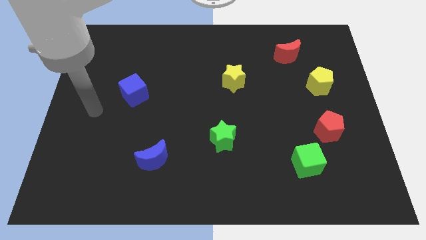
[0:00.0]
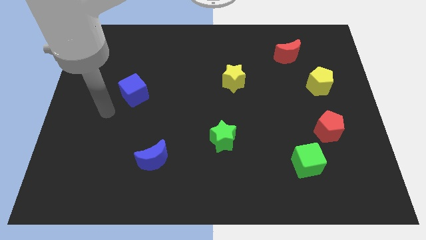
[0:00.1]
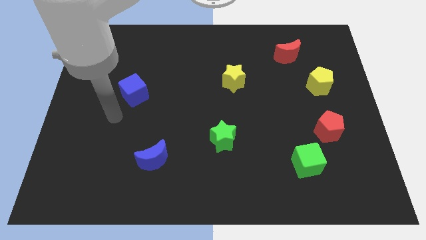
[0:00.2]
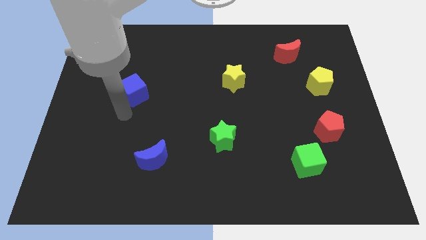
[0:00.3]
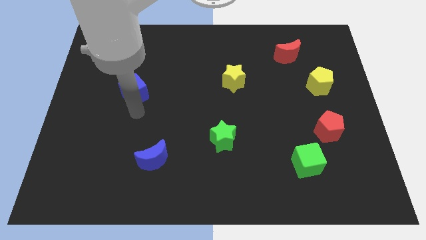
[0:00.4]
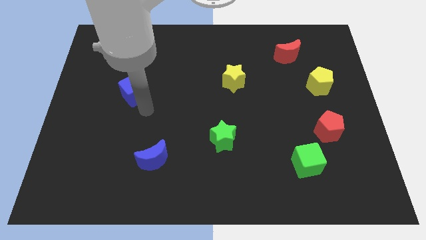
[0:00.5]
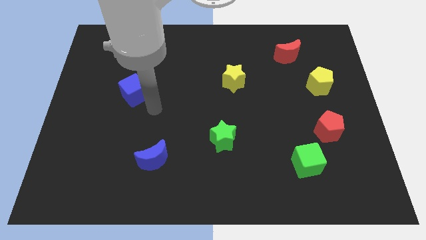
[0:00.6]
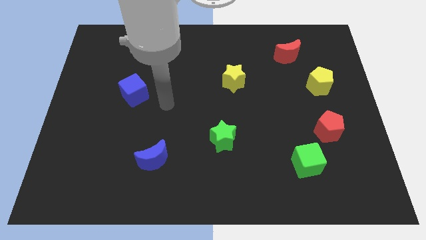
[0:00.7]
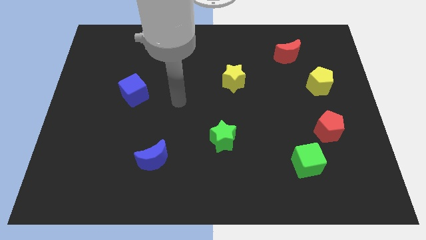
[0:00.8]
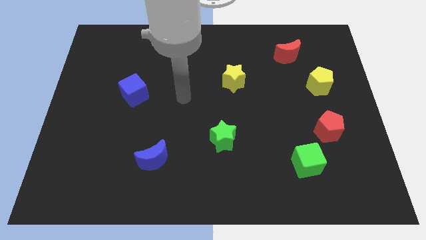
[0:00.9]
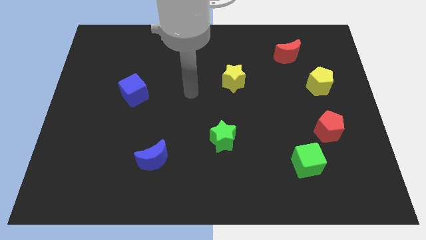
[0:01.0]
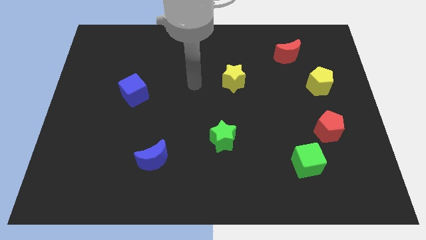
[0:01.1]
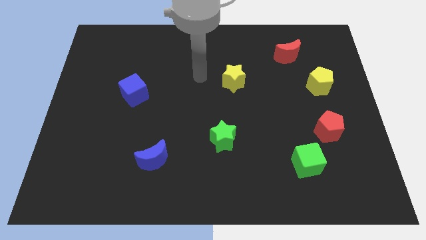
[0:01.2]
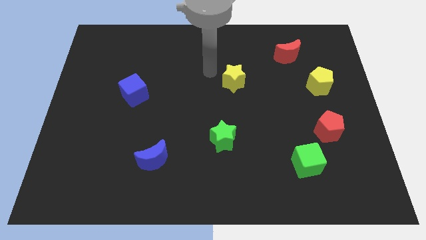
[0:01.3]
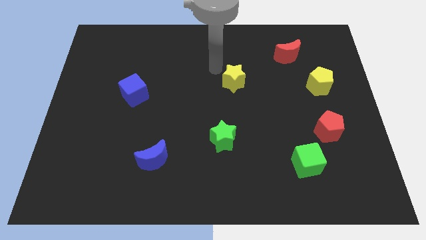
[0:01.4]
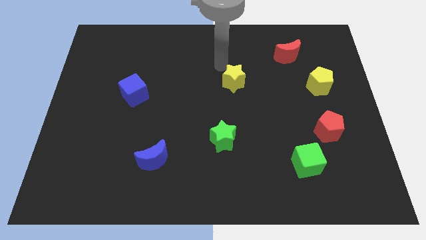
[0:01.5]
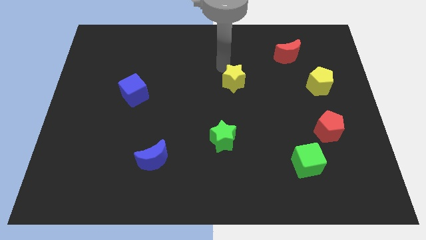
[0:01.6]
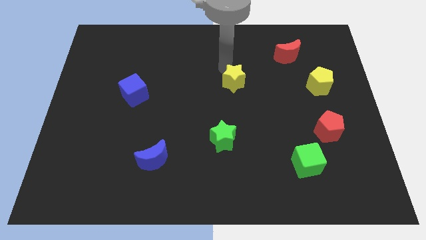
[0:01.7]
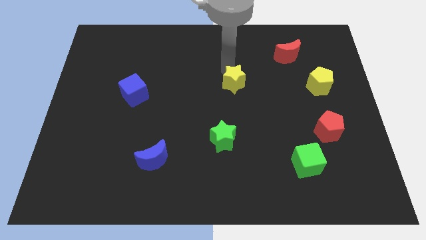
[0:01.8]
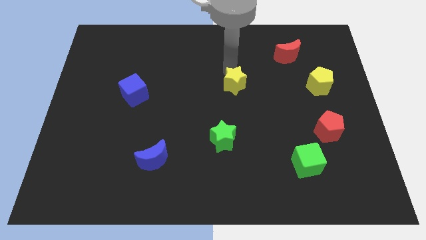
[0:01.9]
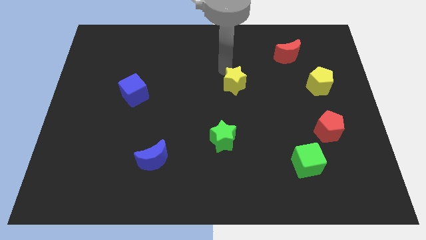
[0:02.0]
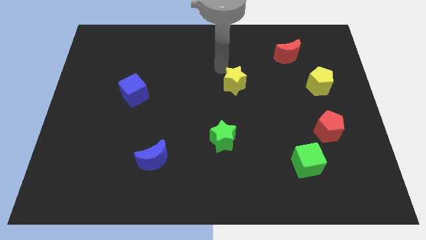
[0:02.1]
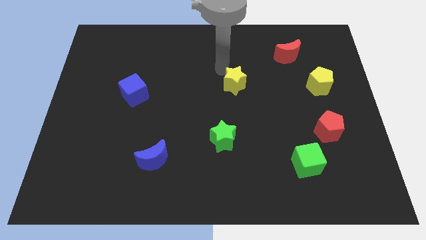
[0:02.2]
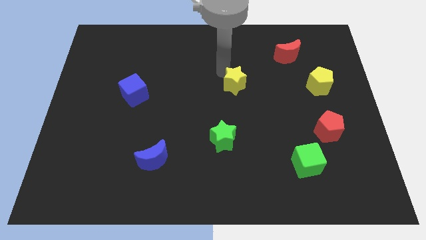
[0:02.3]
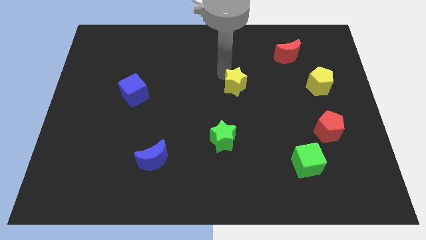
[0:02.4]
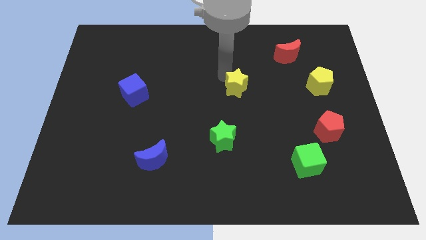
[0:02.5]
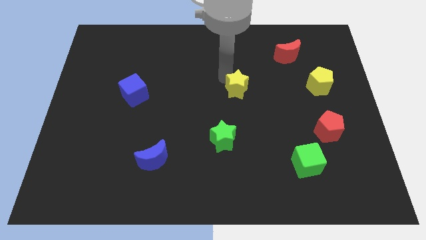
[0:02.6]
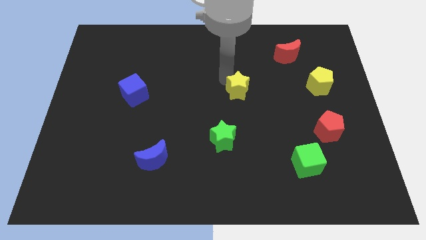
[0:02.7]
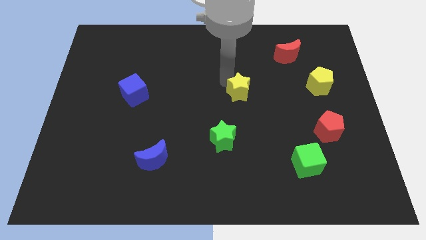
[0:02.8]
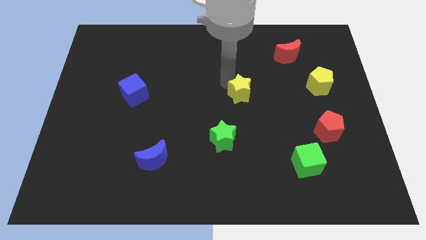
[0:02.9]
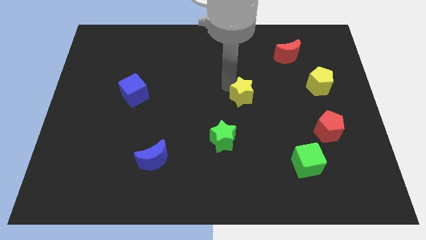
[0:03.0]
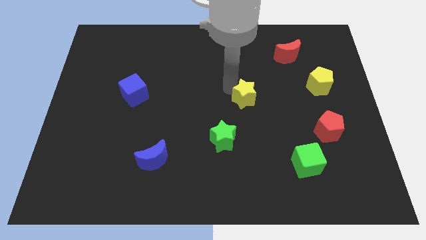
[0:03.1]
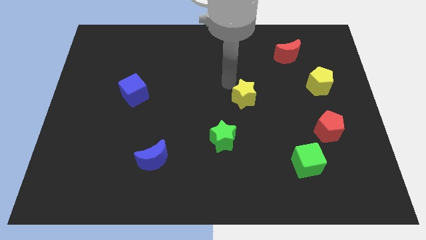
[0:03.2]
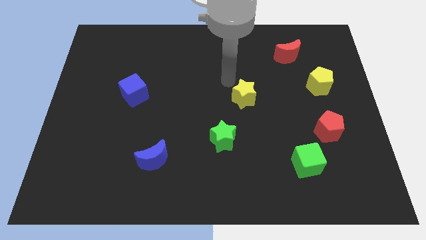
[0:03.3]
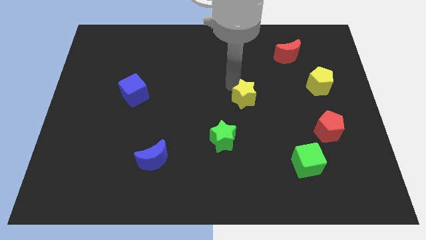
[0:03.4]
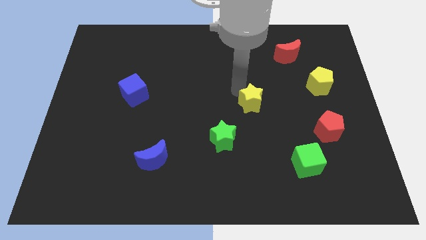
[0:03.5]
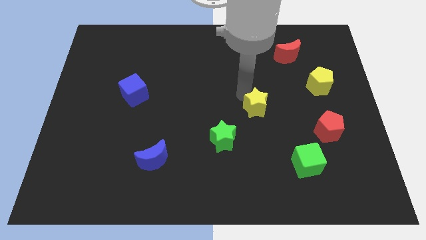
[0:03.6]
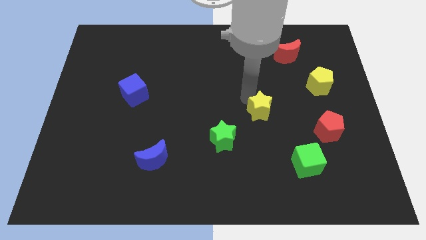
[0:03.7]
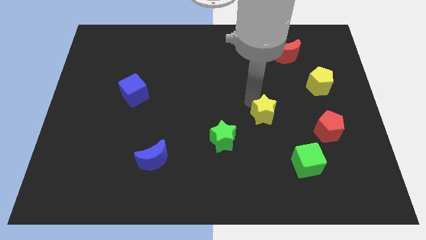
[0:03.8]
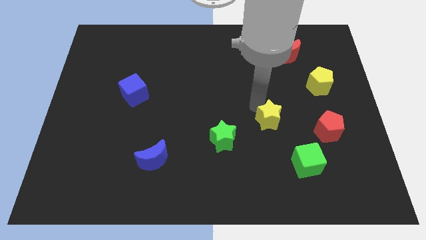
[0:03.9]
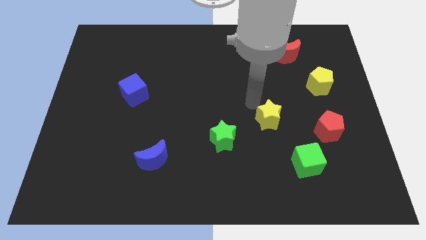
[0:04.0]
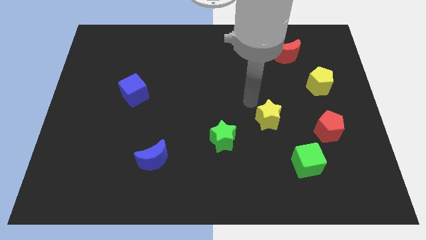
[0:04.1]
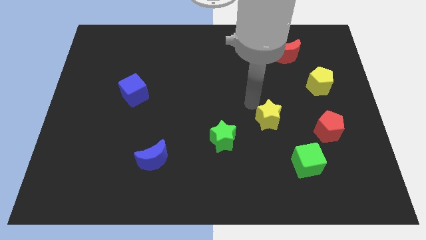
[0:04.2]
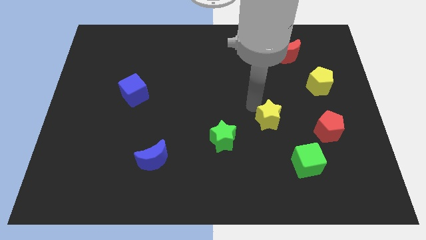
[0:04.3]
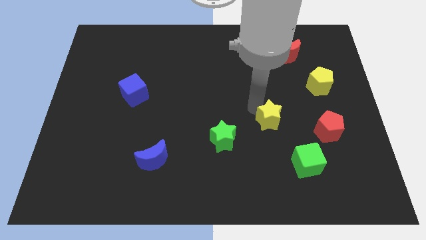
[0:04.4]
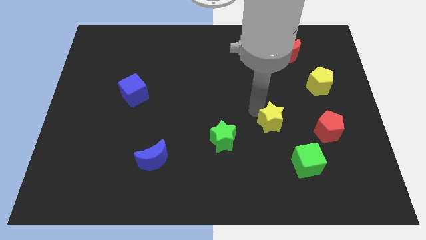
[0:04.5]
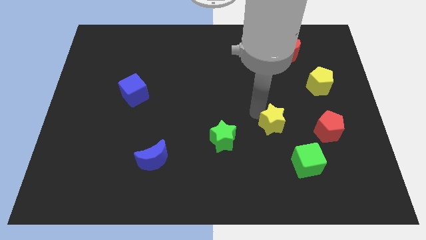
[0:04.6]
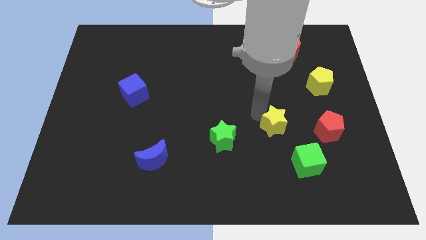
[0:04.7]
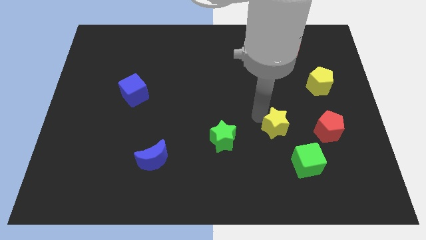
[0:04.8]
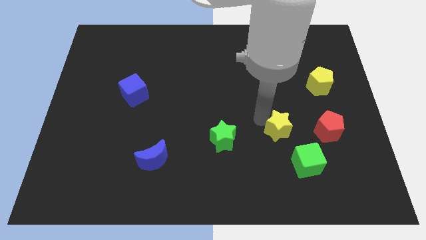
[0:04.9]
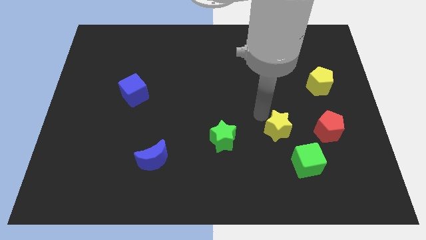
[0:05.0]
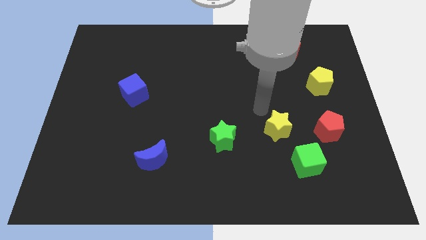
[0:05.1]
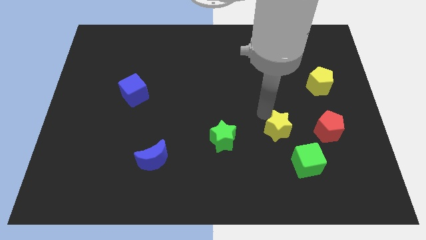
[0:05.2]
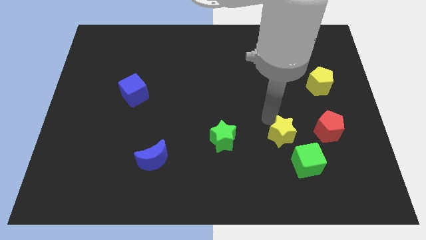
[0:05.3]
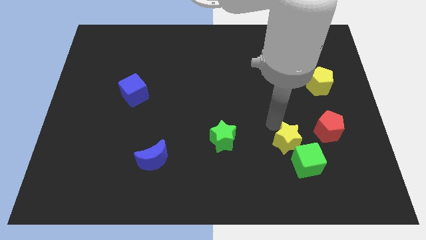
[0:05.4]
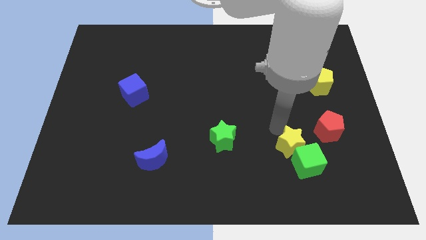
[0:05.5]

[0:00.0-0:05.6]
slide the yellow star next to the green cube

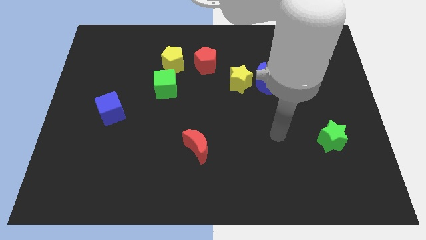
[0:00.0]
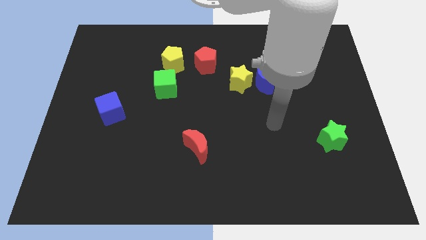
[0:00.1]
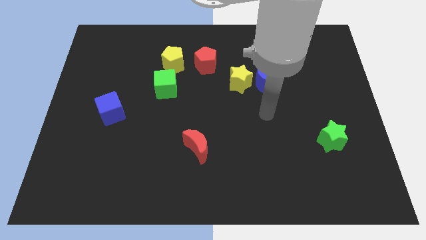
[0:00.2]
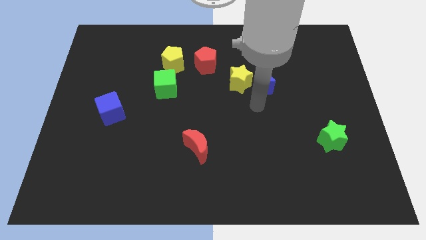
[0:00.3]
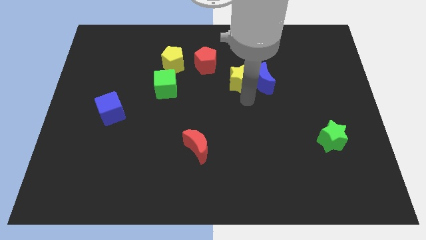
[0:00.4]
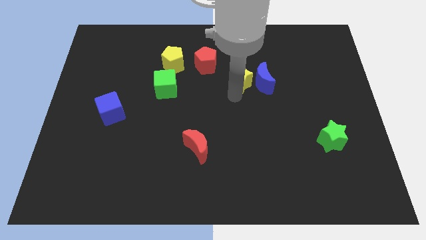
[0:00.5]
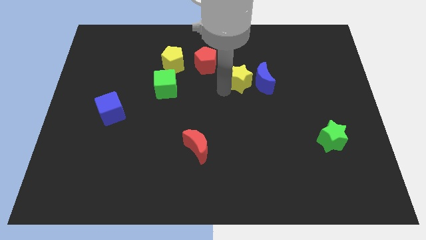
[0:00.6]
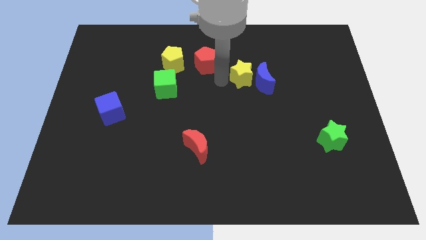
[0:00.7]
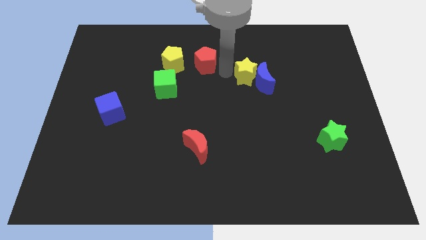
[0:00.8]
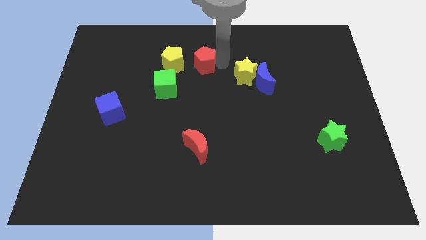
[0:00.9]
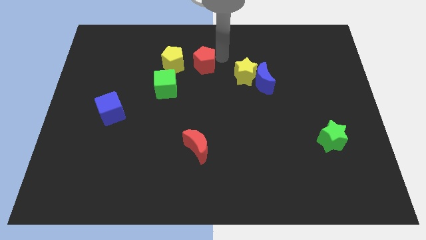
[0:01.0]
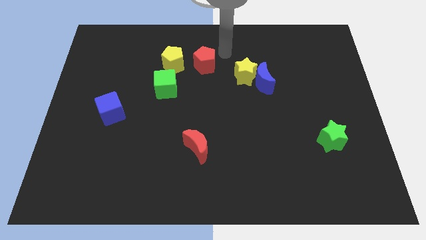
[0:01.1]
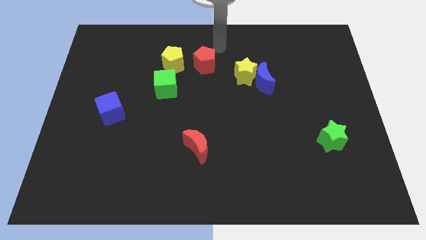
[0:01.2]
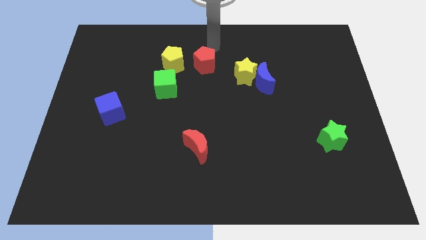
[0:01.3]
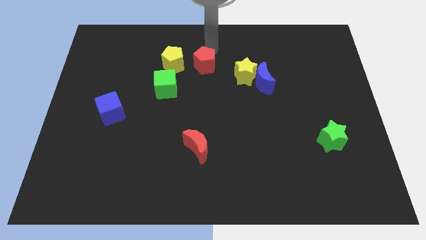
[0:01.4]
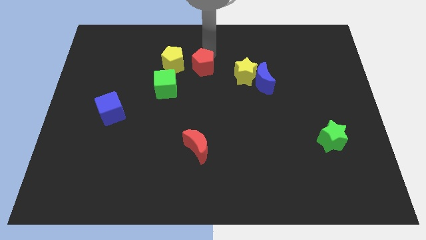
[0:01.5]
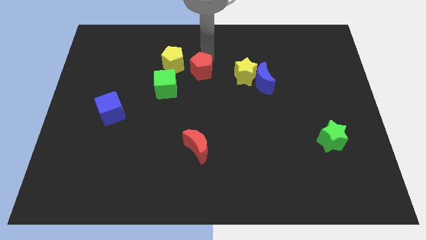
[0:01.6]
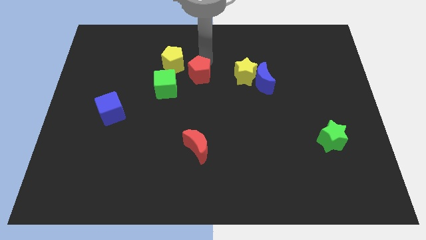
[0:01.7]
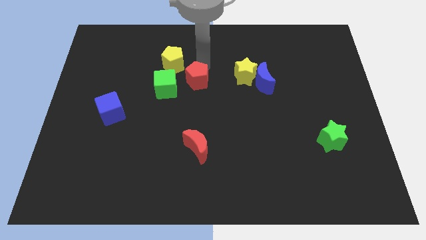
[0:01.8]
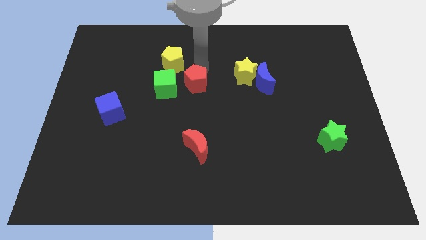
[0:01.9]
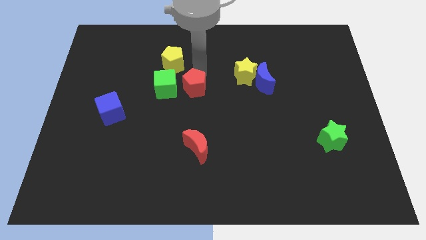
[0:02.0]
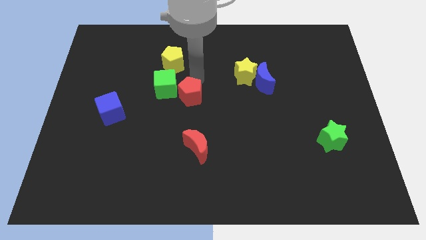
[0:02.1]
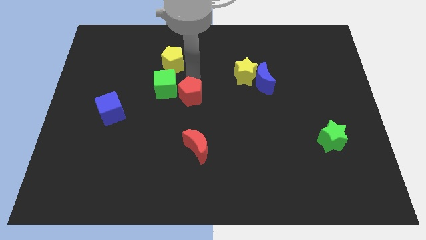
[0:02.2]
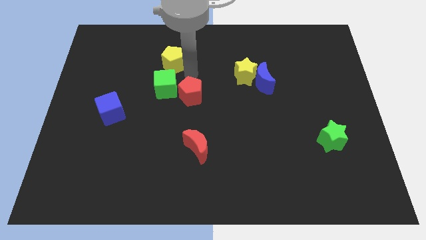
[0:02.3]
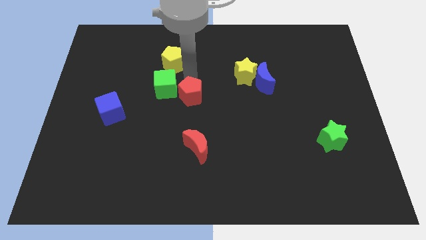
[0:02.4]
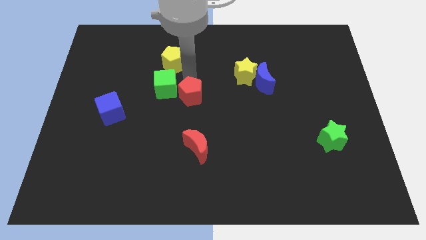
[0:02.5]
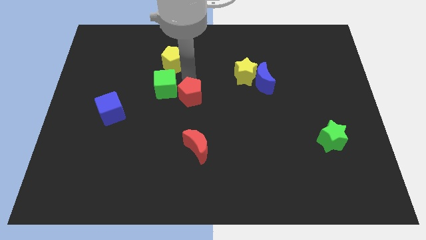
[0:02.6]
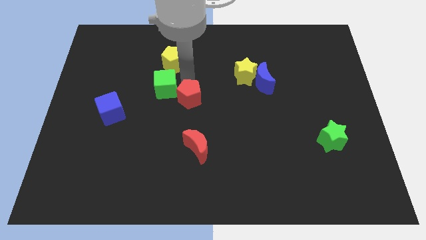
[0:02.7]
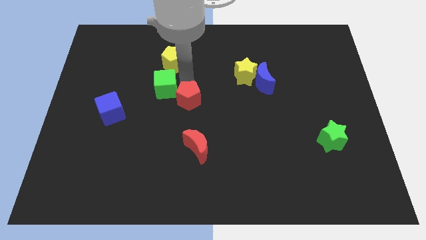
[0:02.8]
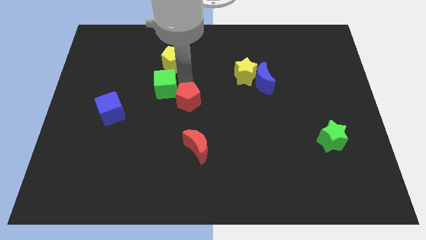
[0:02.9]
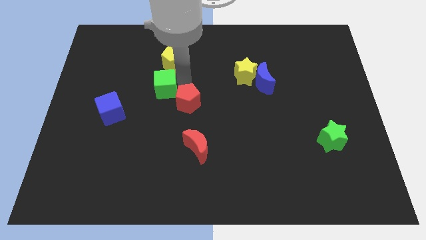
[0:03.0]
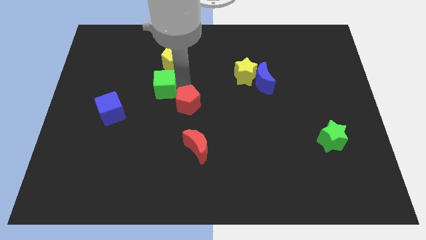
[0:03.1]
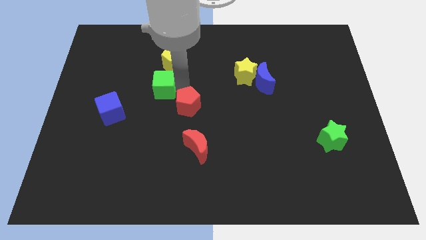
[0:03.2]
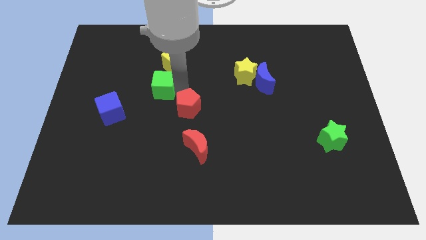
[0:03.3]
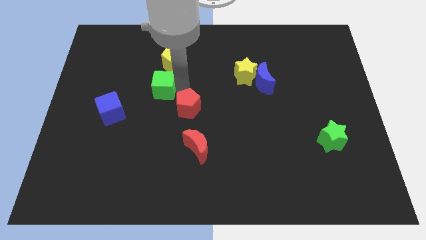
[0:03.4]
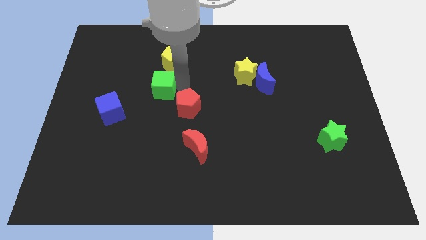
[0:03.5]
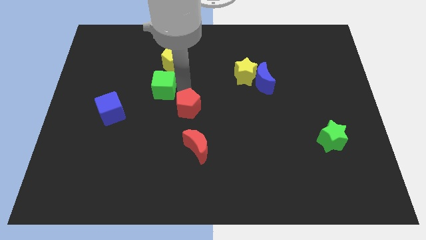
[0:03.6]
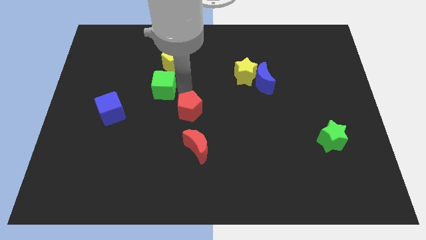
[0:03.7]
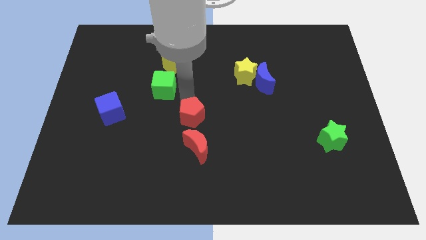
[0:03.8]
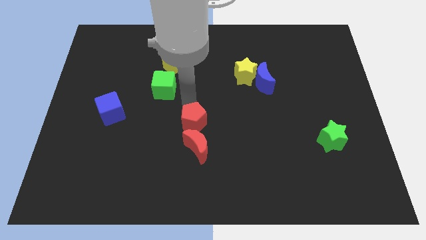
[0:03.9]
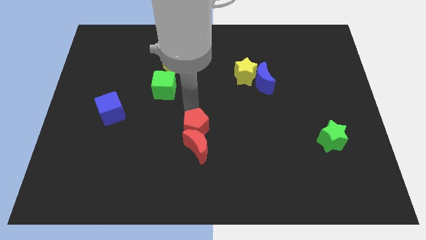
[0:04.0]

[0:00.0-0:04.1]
put the red pentagon to the red moon
